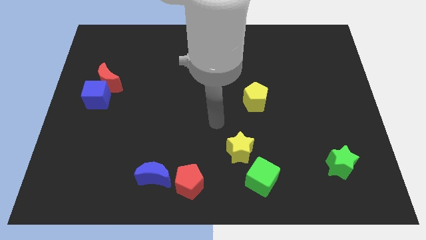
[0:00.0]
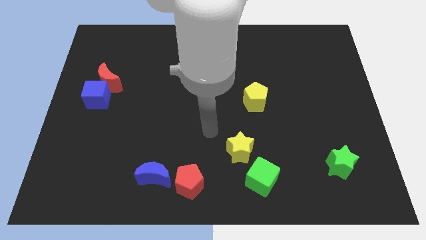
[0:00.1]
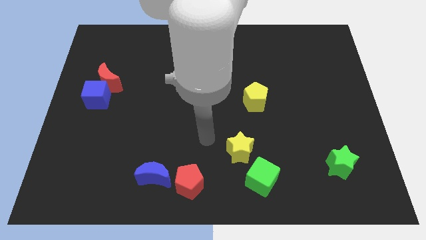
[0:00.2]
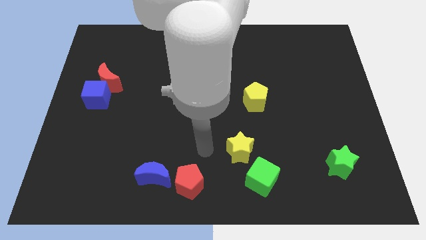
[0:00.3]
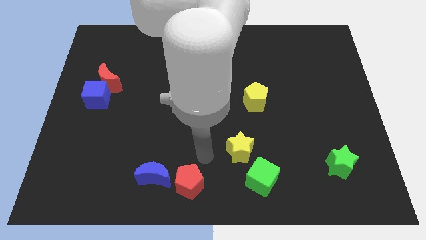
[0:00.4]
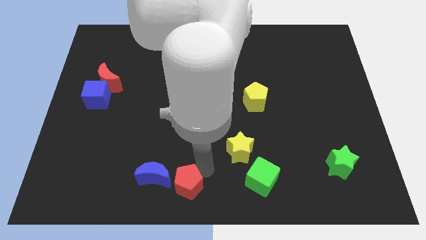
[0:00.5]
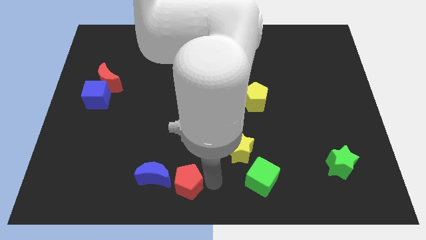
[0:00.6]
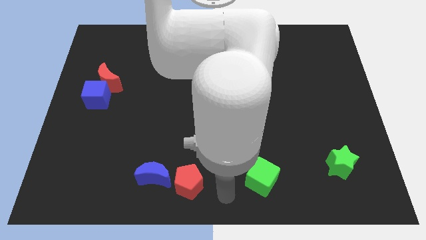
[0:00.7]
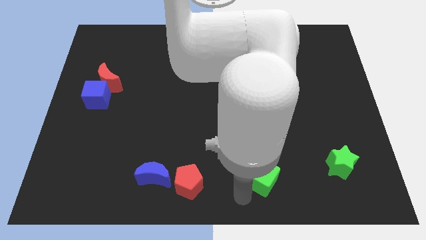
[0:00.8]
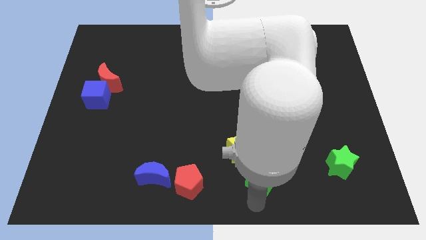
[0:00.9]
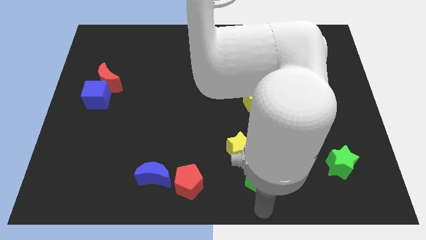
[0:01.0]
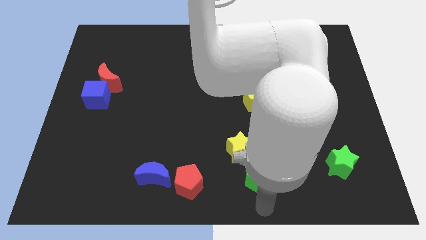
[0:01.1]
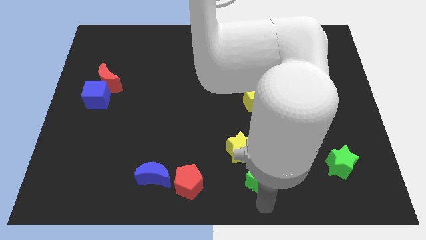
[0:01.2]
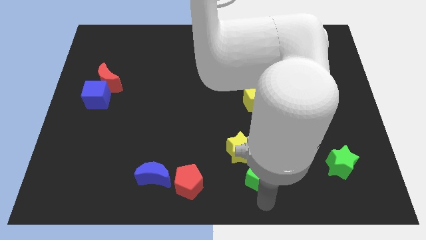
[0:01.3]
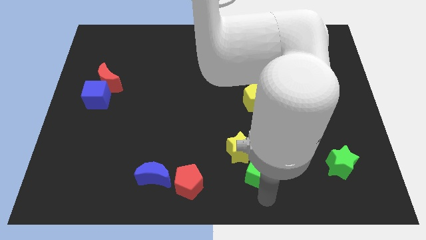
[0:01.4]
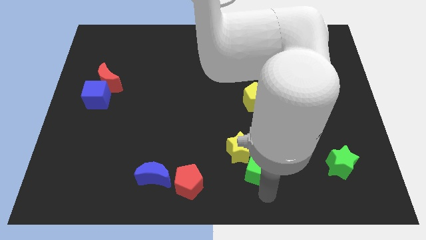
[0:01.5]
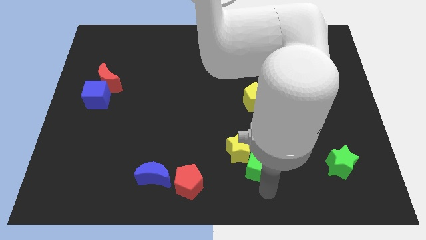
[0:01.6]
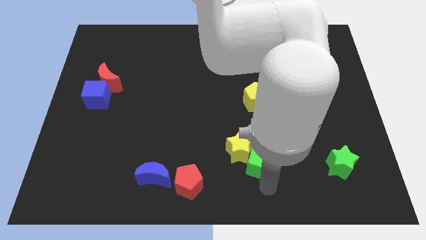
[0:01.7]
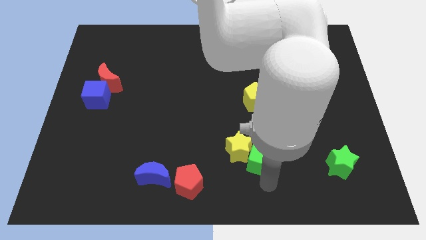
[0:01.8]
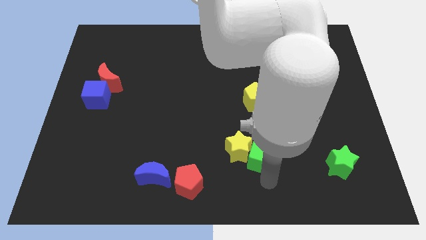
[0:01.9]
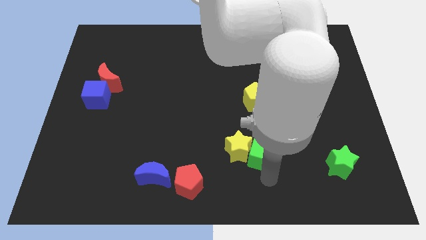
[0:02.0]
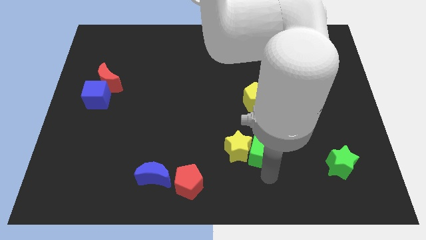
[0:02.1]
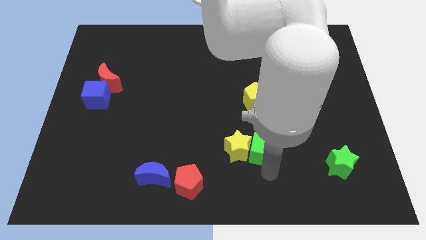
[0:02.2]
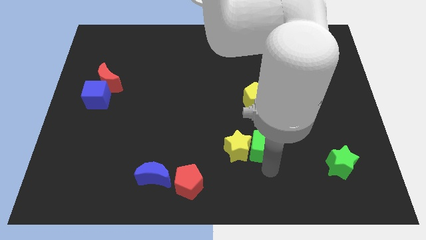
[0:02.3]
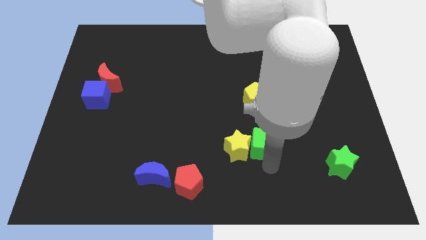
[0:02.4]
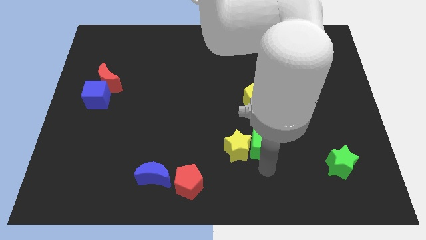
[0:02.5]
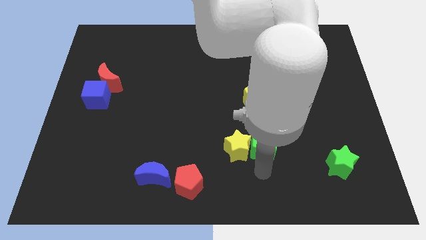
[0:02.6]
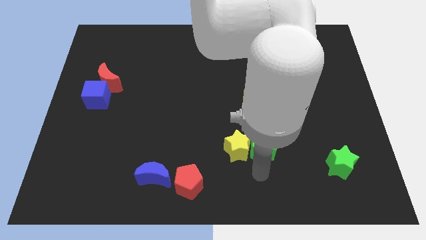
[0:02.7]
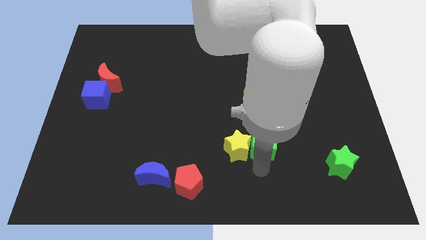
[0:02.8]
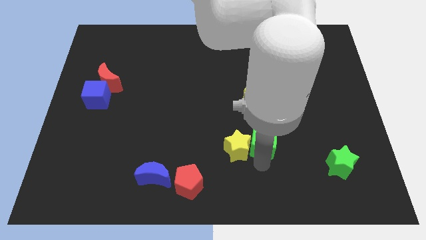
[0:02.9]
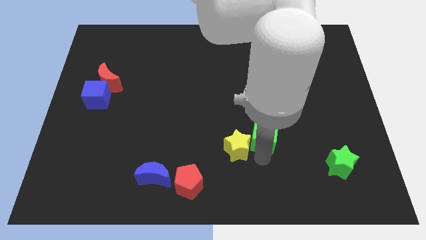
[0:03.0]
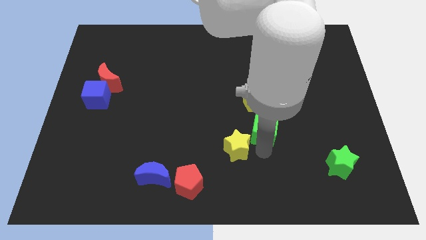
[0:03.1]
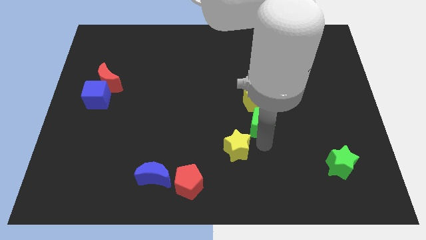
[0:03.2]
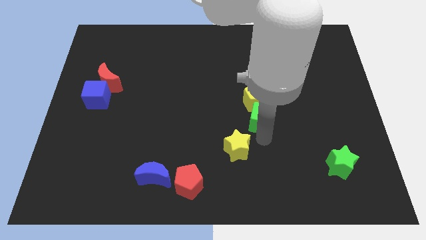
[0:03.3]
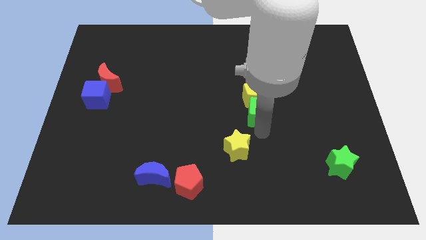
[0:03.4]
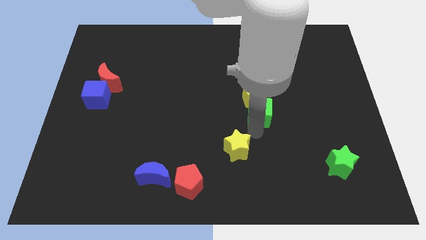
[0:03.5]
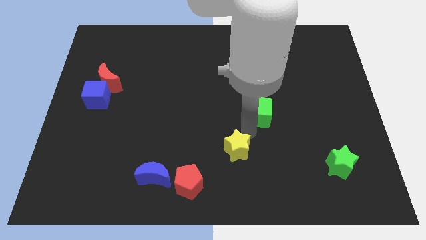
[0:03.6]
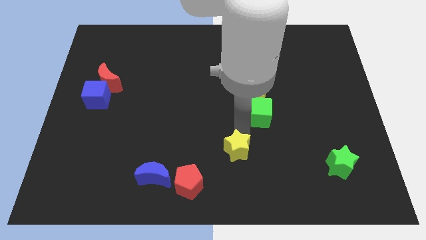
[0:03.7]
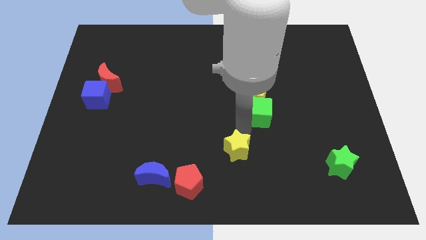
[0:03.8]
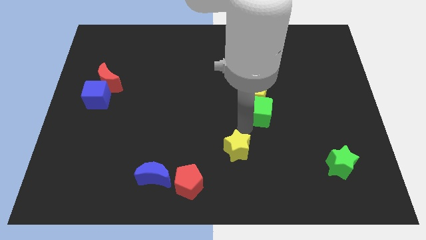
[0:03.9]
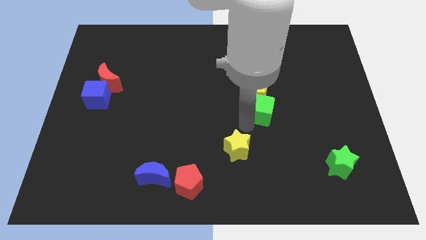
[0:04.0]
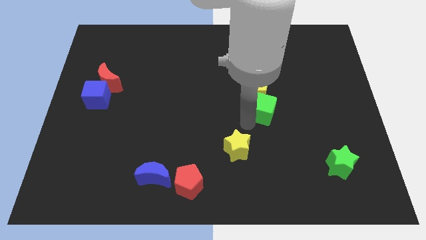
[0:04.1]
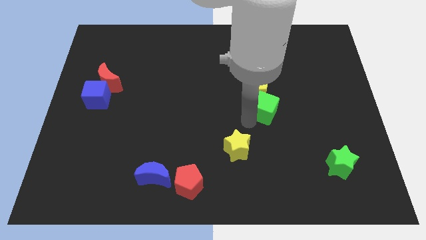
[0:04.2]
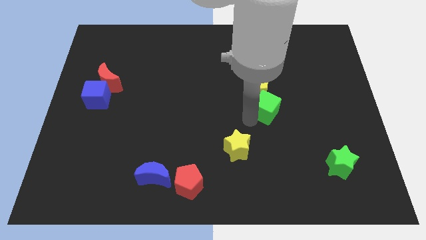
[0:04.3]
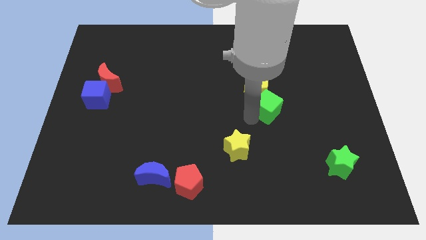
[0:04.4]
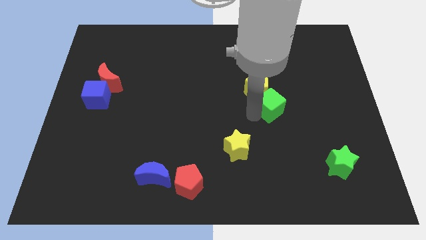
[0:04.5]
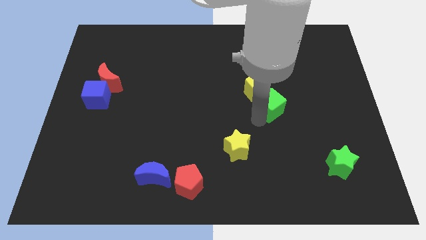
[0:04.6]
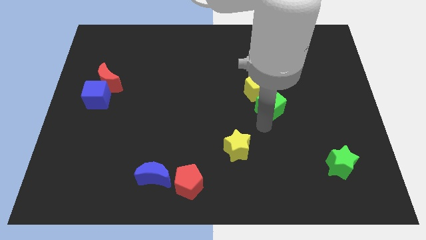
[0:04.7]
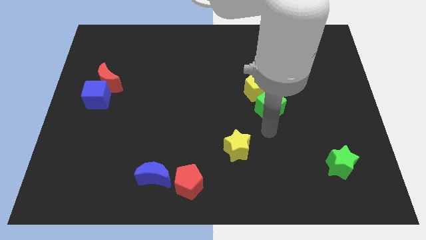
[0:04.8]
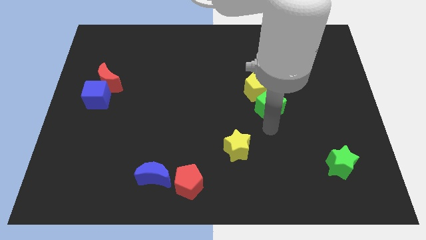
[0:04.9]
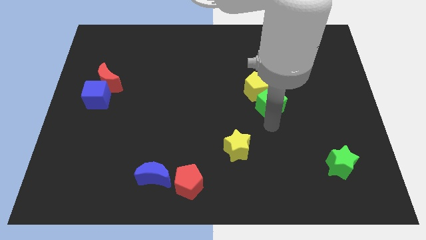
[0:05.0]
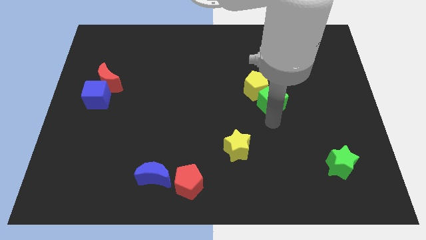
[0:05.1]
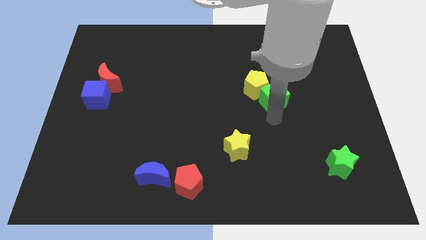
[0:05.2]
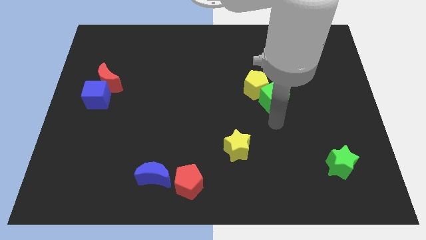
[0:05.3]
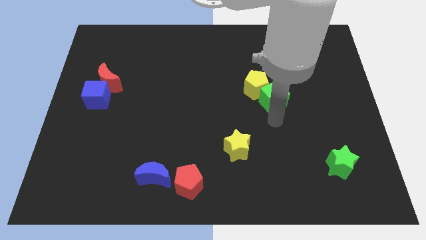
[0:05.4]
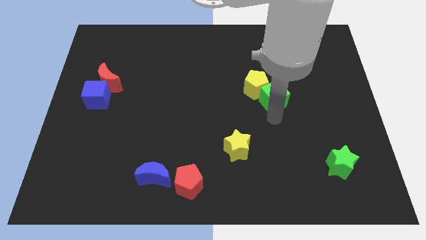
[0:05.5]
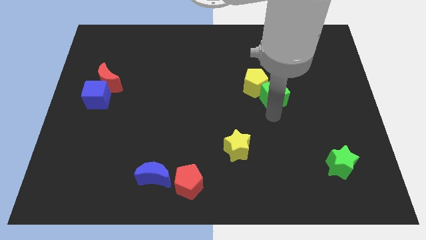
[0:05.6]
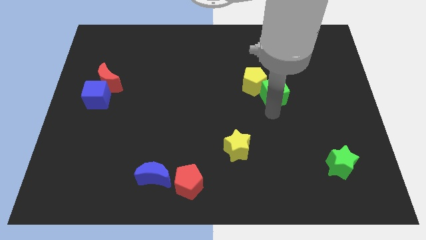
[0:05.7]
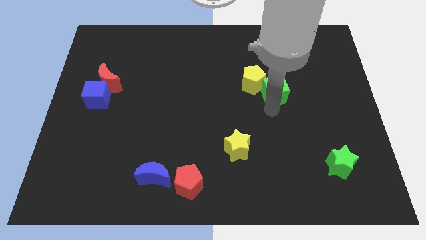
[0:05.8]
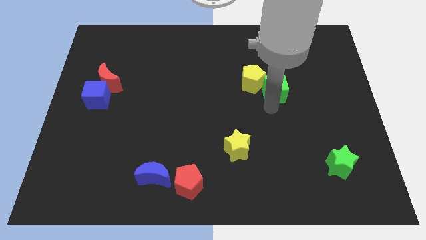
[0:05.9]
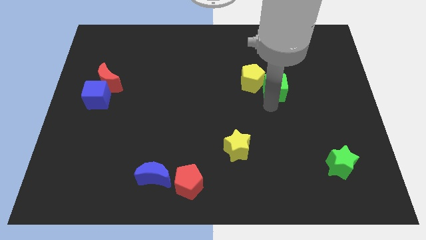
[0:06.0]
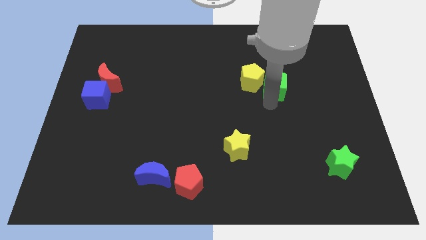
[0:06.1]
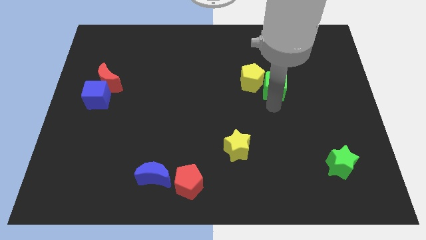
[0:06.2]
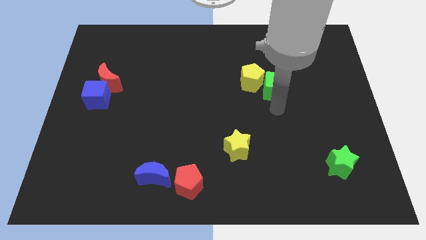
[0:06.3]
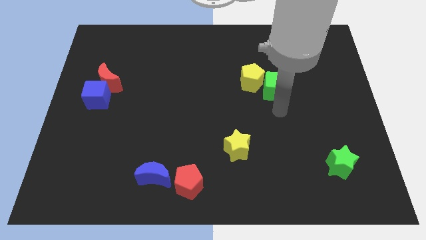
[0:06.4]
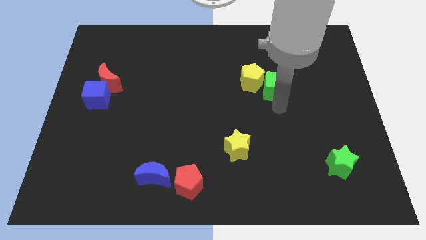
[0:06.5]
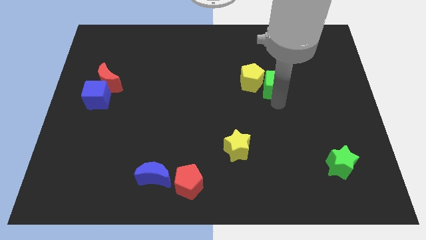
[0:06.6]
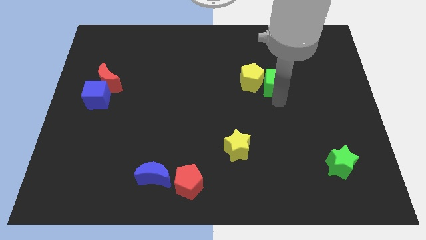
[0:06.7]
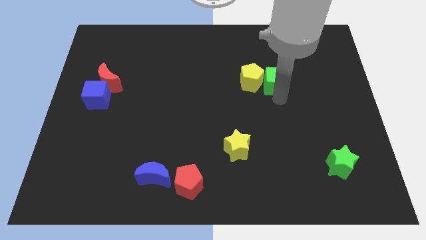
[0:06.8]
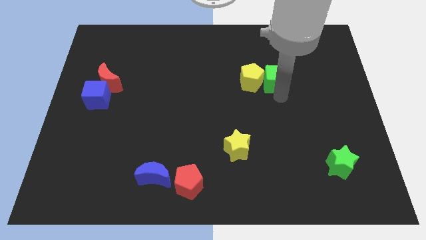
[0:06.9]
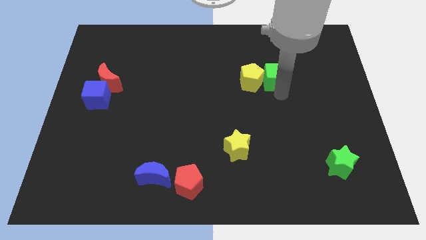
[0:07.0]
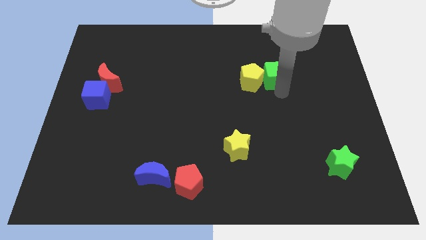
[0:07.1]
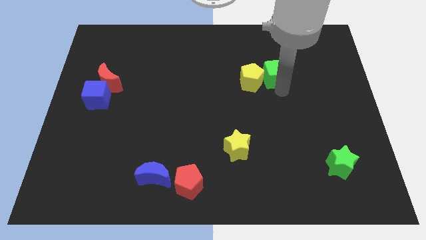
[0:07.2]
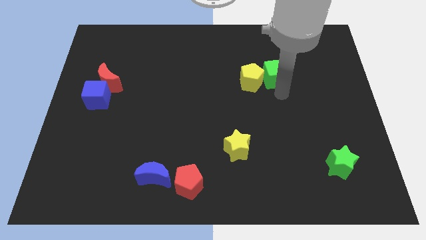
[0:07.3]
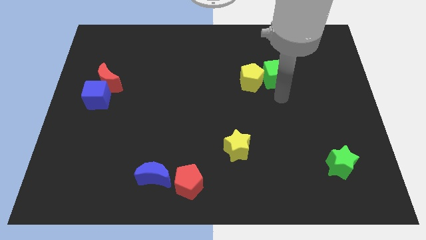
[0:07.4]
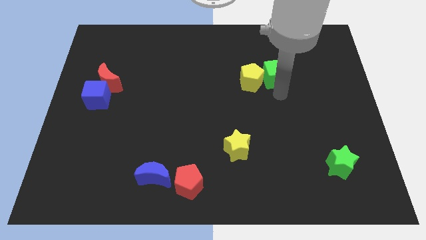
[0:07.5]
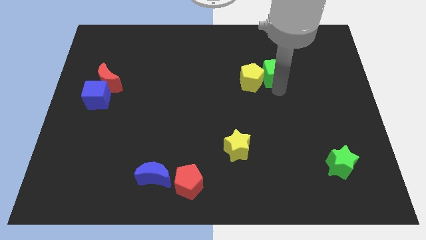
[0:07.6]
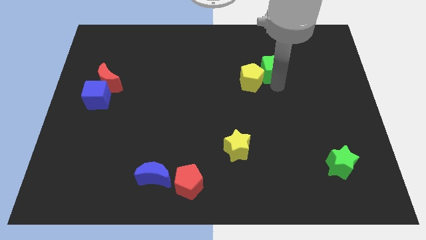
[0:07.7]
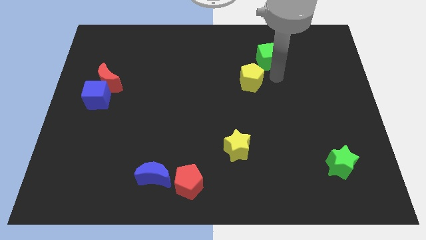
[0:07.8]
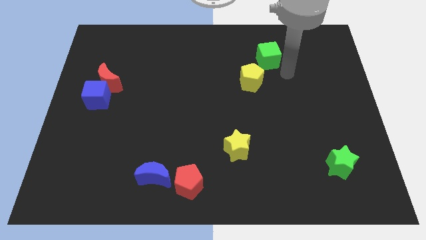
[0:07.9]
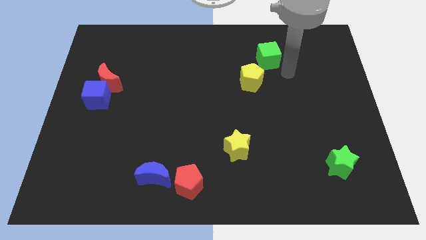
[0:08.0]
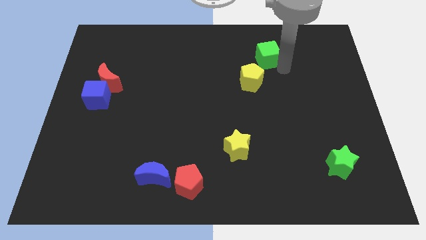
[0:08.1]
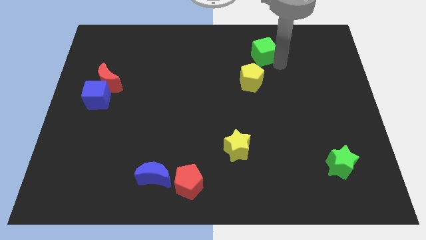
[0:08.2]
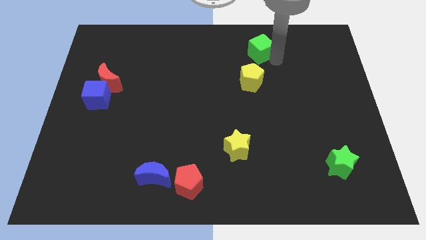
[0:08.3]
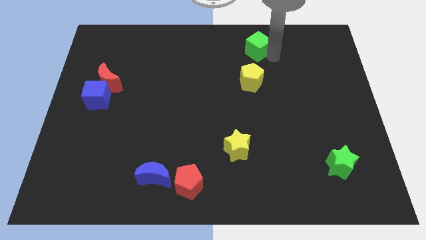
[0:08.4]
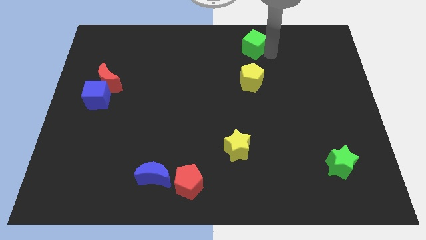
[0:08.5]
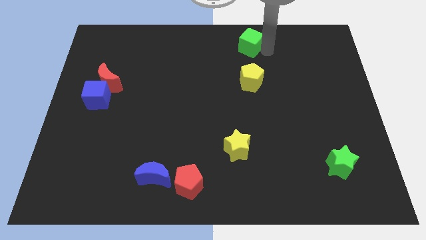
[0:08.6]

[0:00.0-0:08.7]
put the green cube to the towards your base
